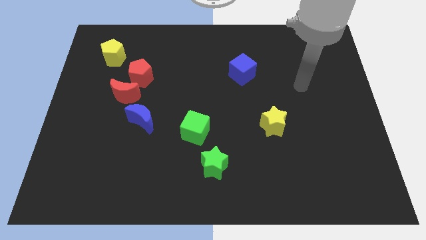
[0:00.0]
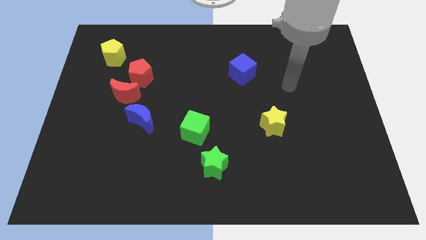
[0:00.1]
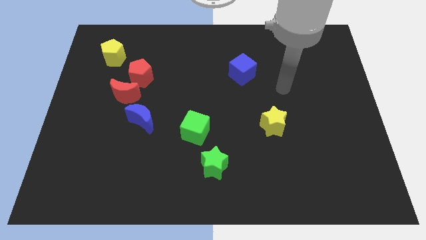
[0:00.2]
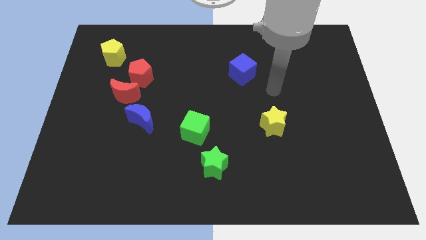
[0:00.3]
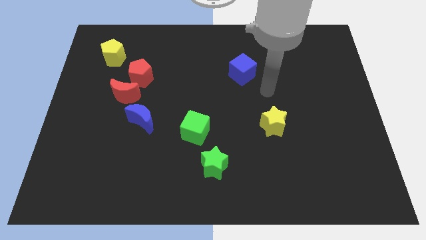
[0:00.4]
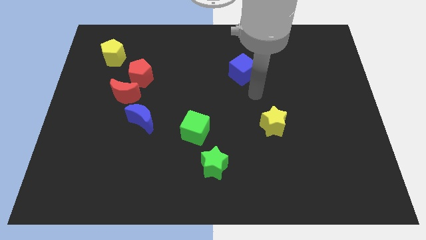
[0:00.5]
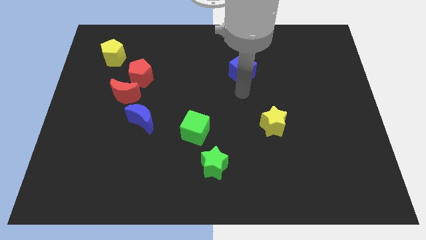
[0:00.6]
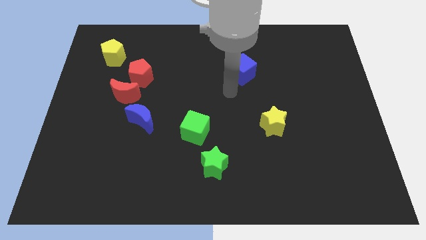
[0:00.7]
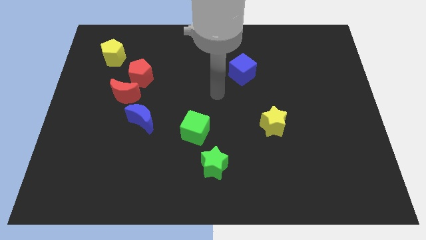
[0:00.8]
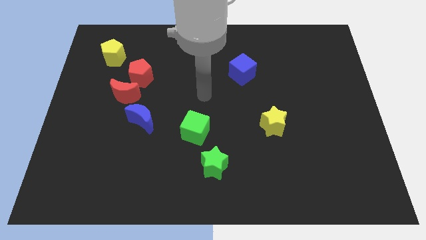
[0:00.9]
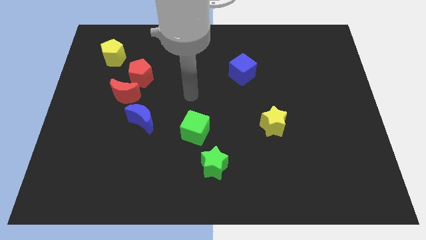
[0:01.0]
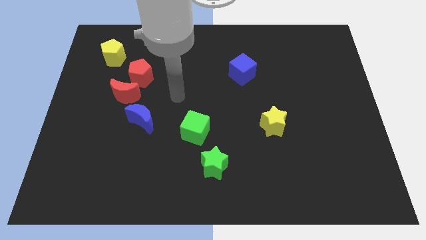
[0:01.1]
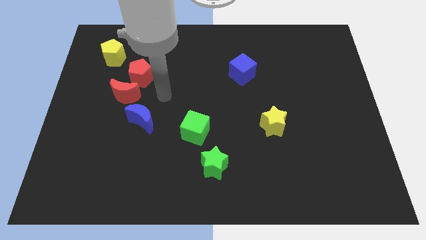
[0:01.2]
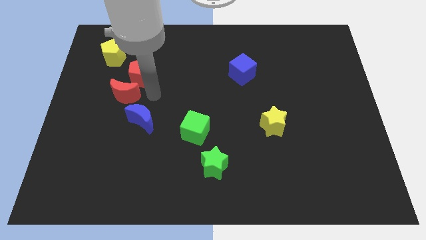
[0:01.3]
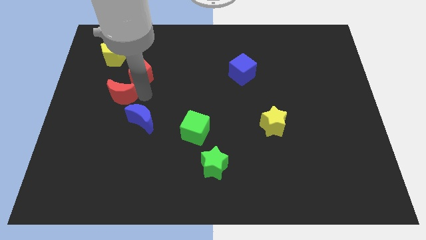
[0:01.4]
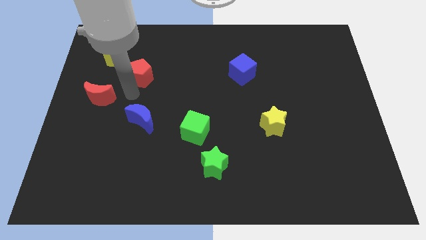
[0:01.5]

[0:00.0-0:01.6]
separate the red pentagon from the red moon

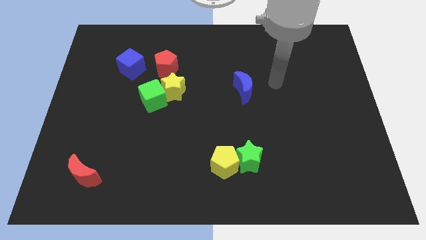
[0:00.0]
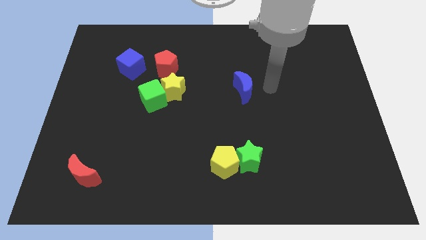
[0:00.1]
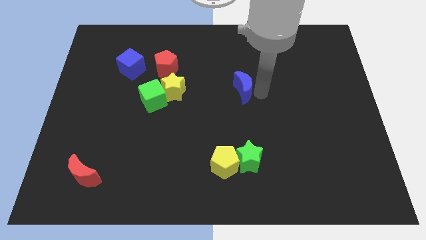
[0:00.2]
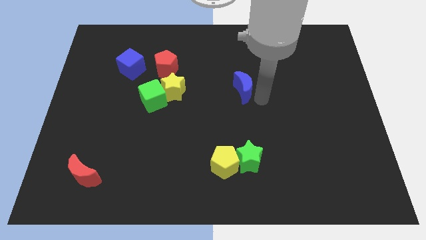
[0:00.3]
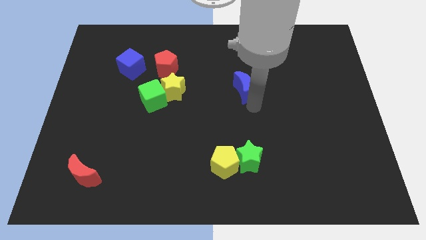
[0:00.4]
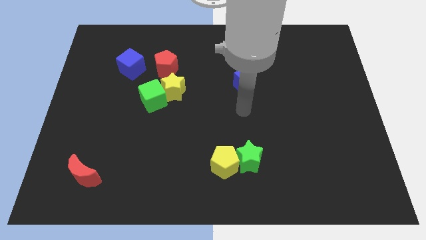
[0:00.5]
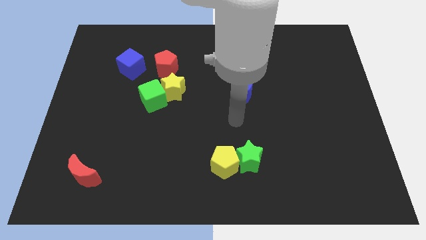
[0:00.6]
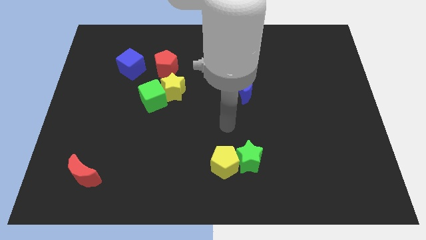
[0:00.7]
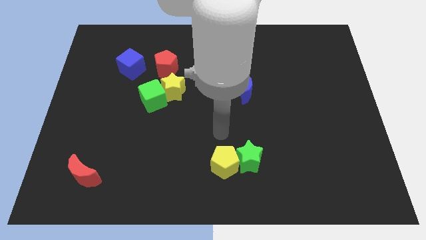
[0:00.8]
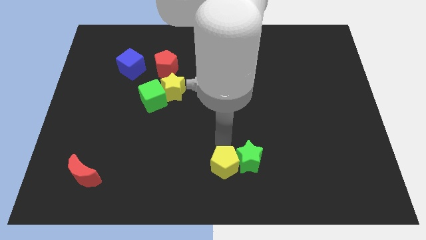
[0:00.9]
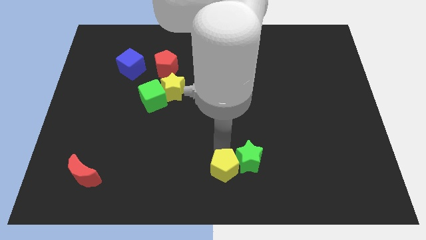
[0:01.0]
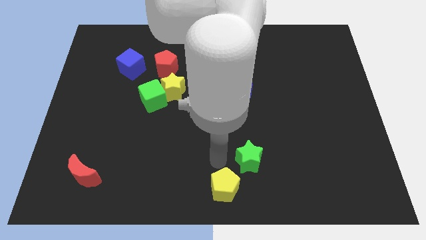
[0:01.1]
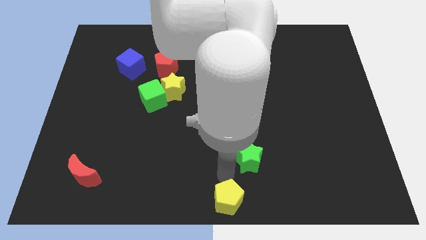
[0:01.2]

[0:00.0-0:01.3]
move the green star away from the yellow pentagon

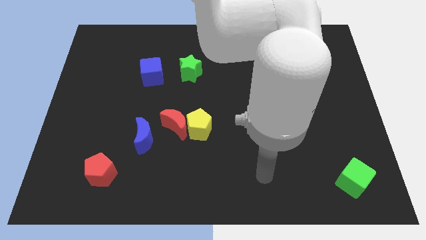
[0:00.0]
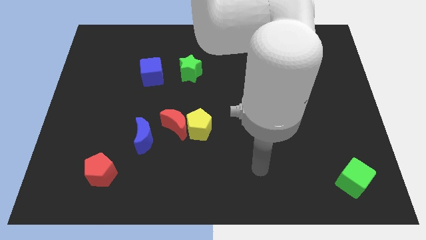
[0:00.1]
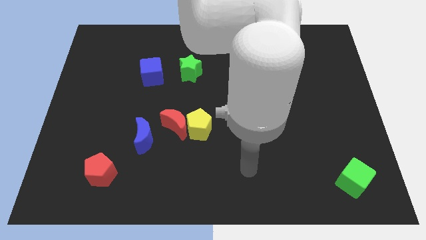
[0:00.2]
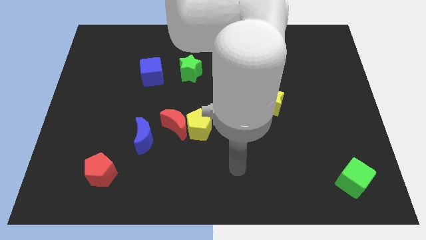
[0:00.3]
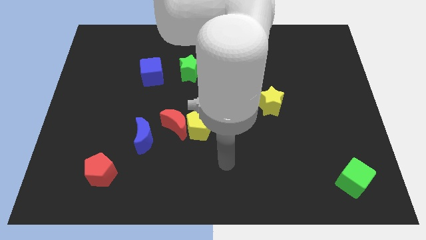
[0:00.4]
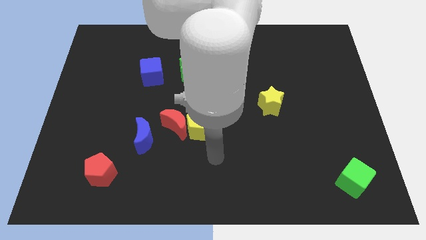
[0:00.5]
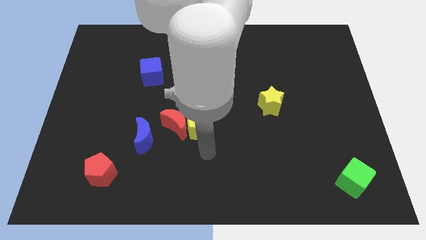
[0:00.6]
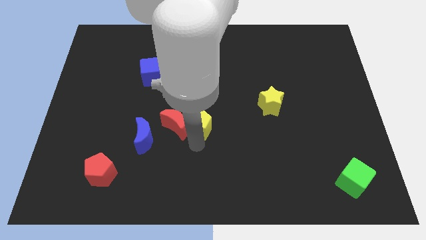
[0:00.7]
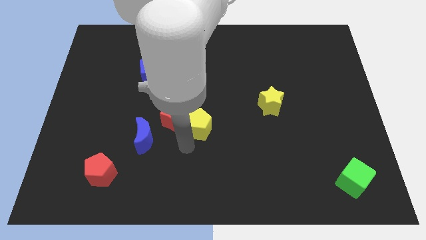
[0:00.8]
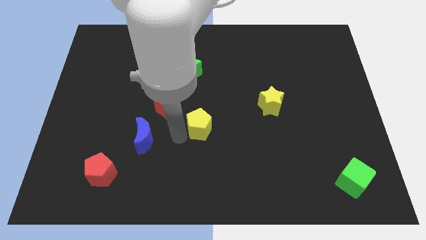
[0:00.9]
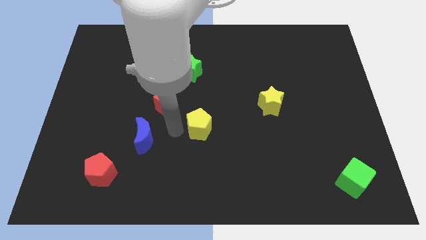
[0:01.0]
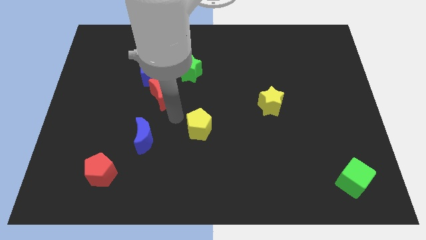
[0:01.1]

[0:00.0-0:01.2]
move the yellow pentagon away from the red moon

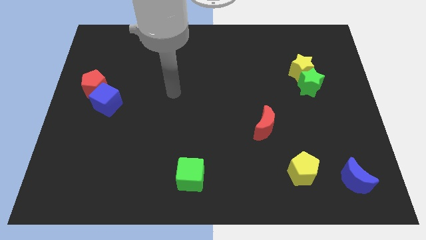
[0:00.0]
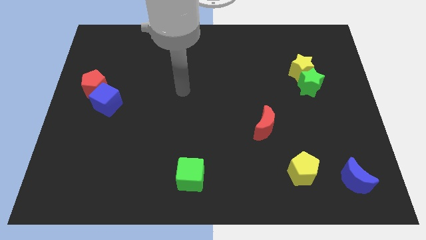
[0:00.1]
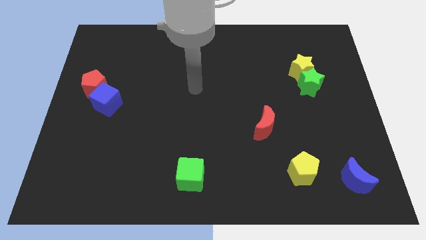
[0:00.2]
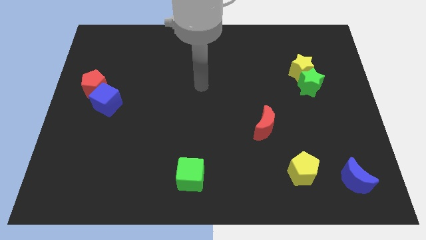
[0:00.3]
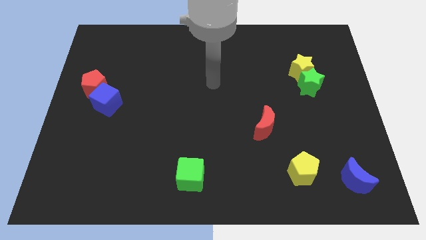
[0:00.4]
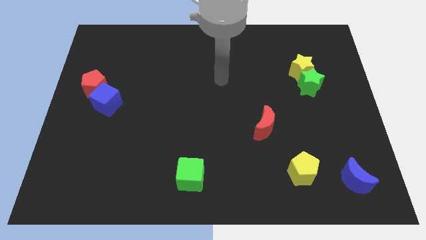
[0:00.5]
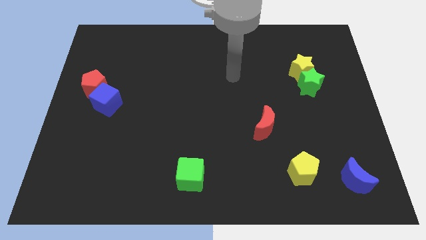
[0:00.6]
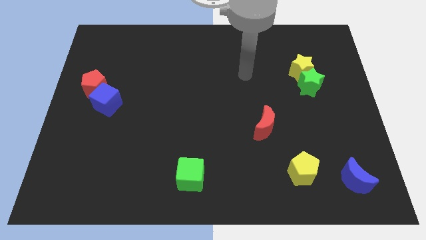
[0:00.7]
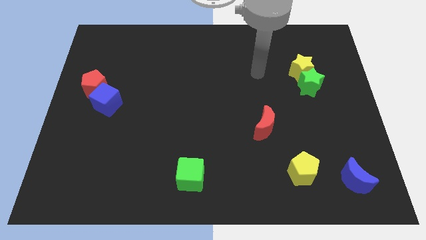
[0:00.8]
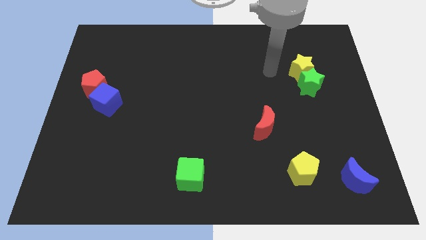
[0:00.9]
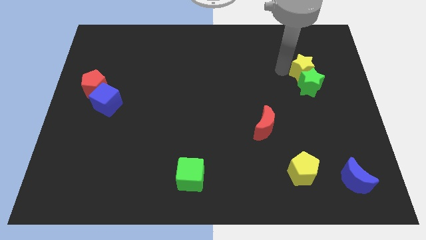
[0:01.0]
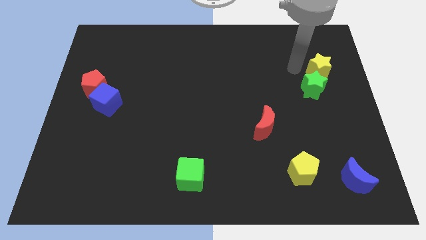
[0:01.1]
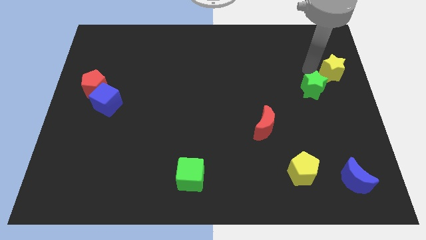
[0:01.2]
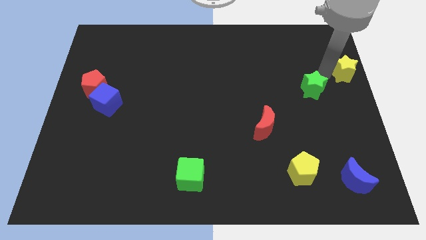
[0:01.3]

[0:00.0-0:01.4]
pull the green star apart from the yellow star

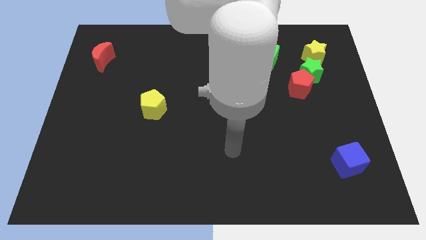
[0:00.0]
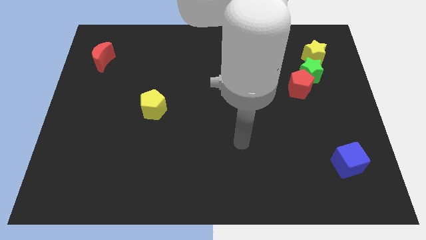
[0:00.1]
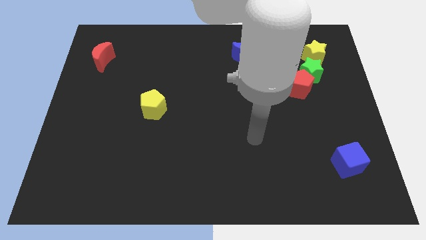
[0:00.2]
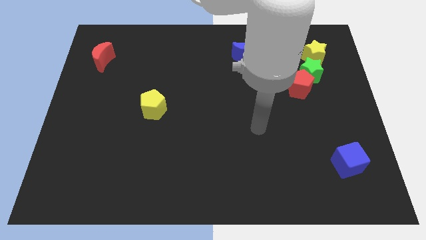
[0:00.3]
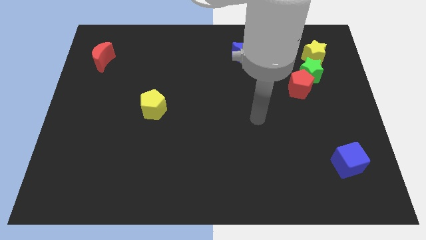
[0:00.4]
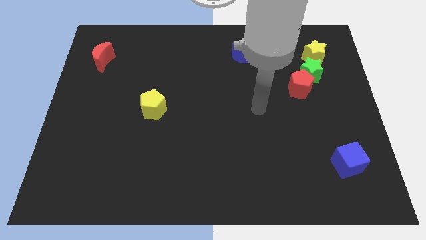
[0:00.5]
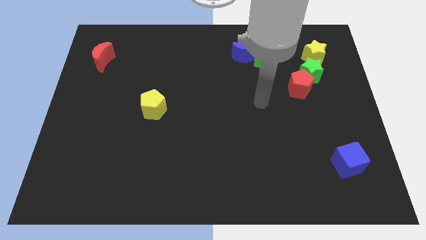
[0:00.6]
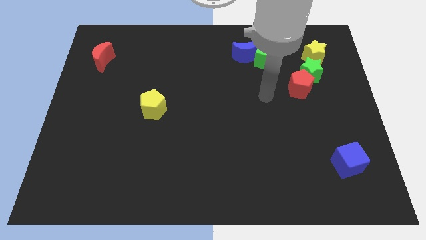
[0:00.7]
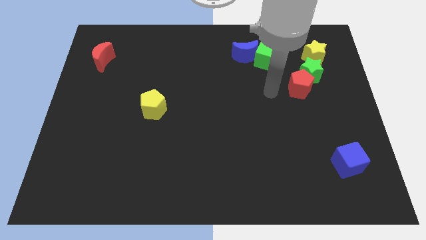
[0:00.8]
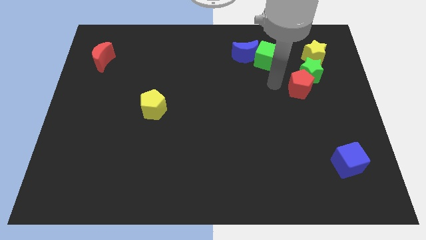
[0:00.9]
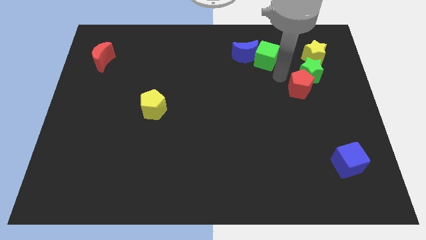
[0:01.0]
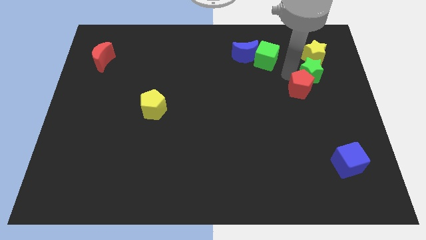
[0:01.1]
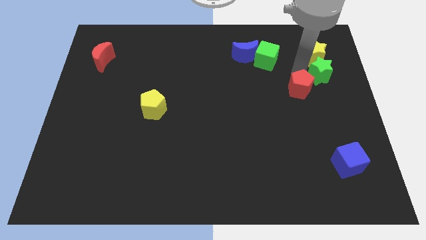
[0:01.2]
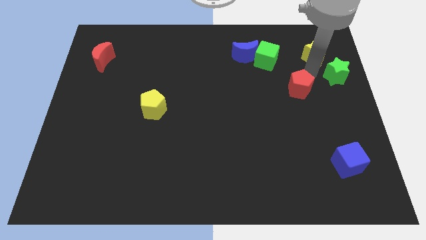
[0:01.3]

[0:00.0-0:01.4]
separate the red pentagon from the green star

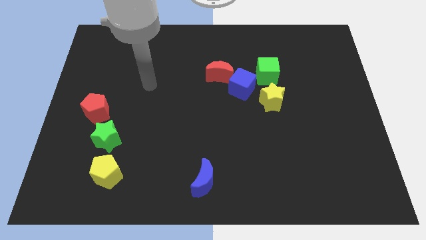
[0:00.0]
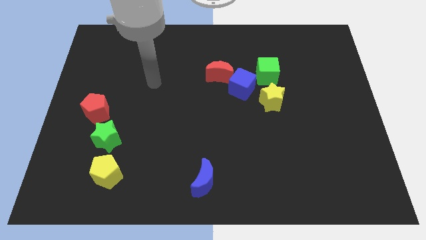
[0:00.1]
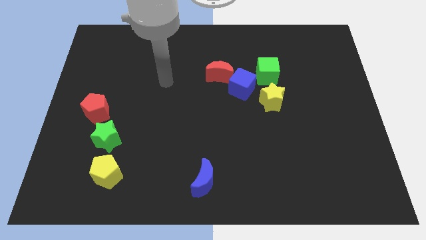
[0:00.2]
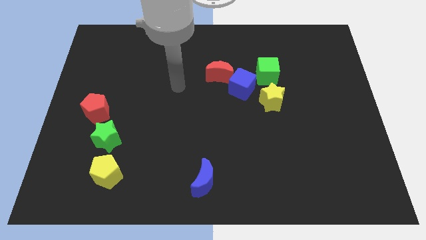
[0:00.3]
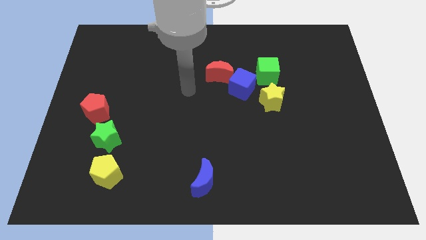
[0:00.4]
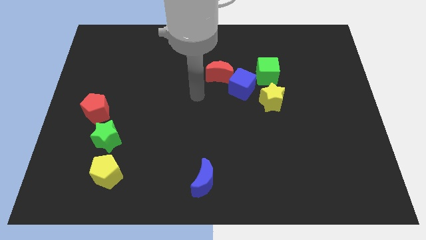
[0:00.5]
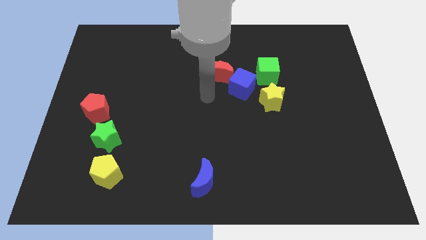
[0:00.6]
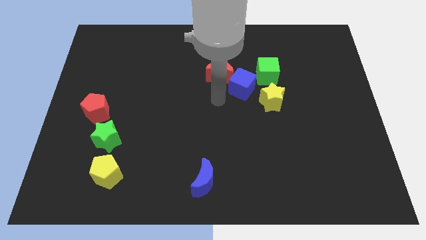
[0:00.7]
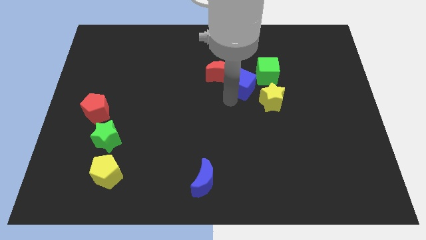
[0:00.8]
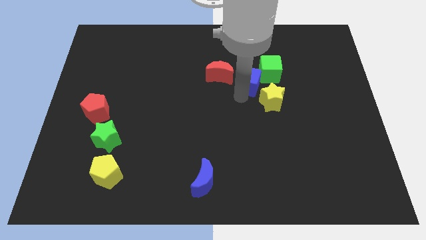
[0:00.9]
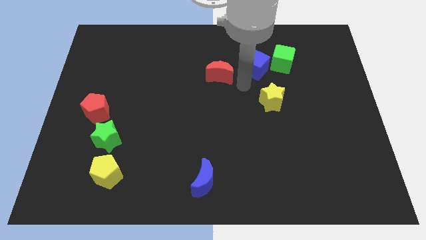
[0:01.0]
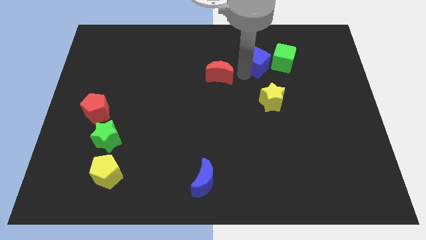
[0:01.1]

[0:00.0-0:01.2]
separate the red moon from the blue cube

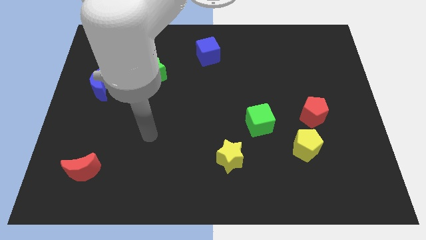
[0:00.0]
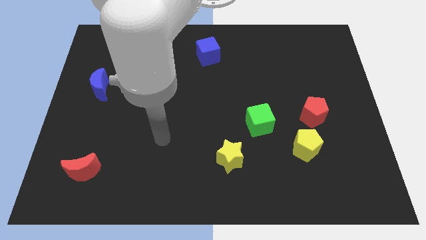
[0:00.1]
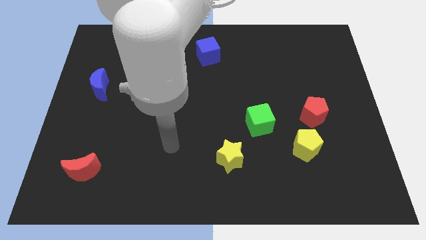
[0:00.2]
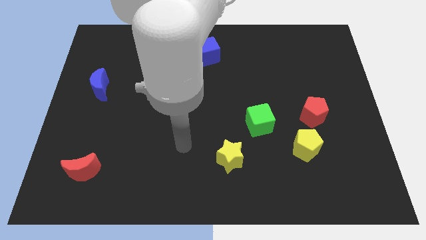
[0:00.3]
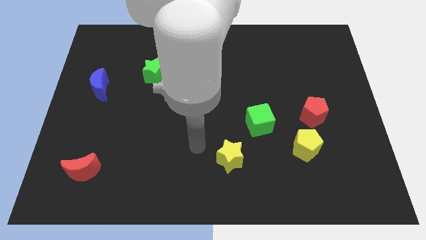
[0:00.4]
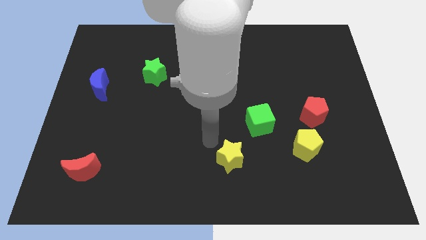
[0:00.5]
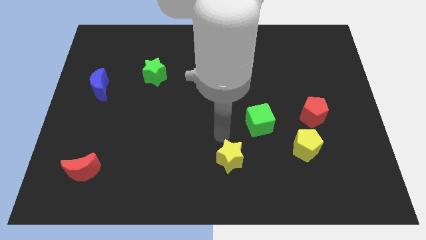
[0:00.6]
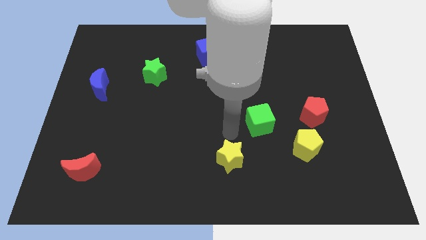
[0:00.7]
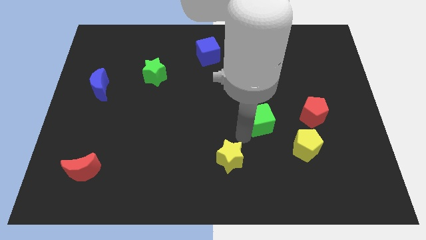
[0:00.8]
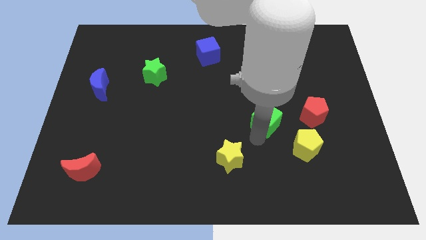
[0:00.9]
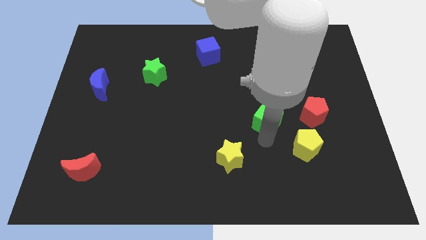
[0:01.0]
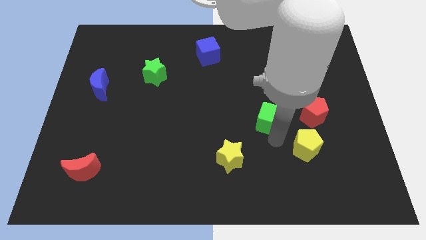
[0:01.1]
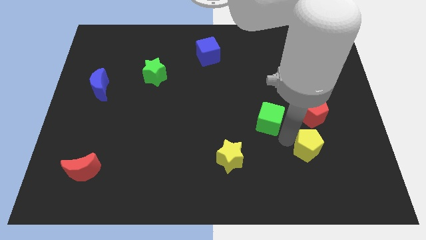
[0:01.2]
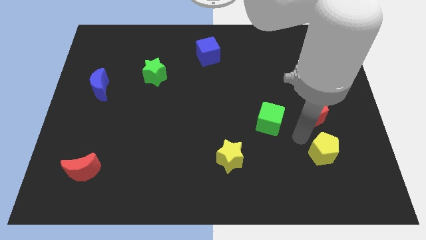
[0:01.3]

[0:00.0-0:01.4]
move the red pentagon away from the yellow pentagon
